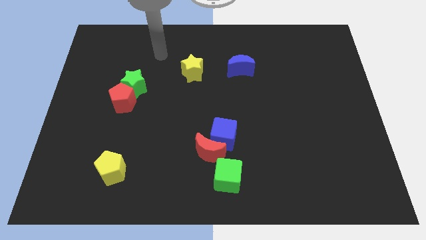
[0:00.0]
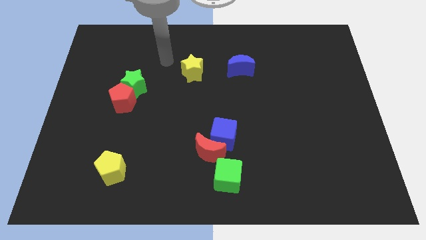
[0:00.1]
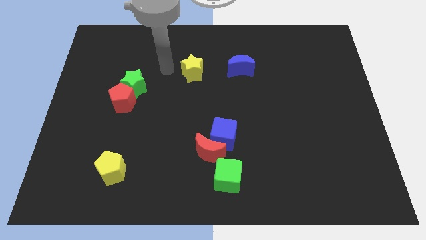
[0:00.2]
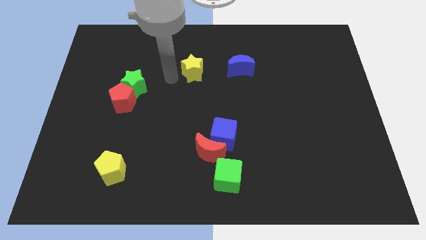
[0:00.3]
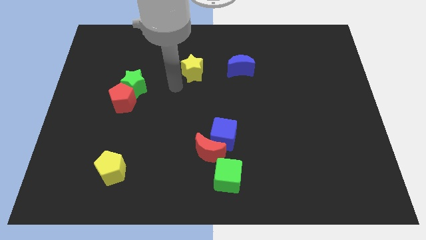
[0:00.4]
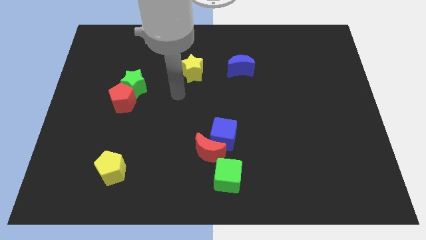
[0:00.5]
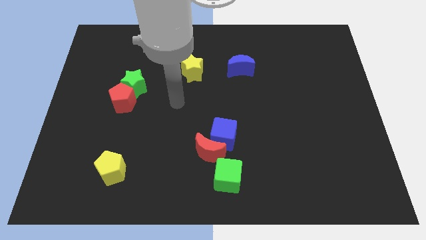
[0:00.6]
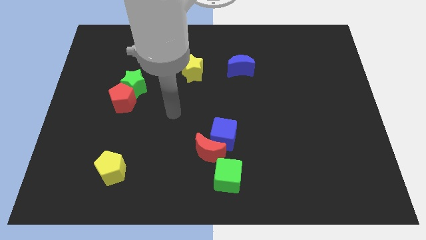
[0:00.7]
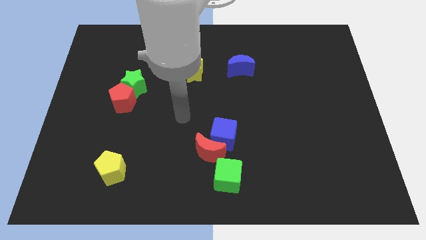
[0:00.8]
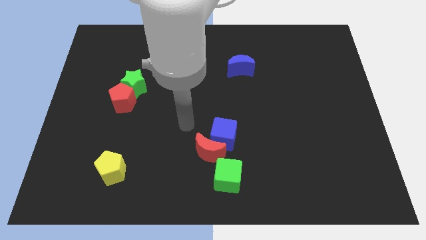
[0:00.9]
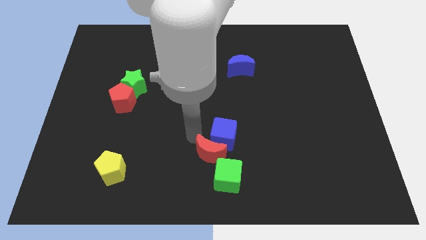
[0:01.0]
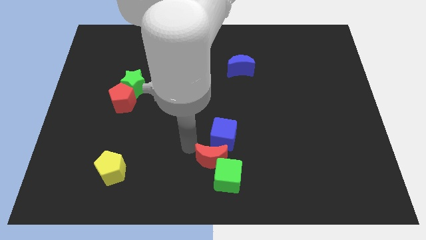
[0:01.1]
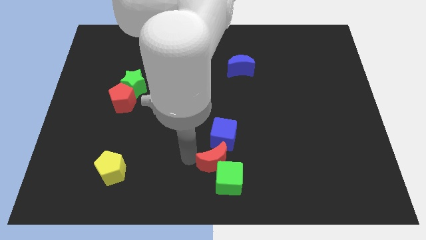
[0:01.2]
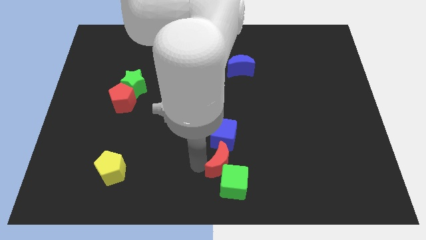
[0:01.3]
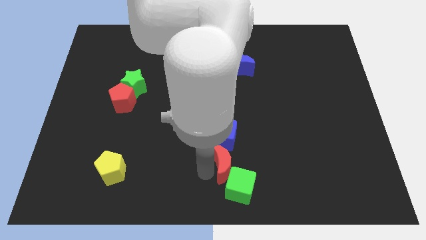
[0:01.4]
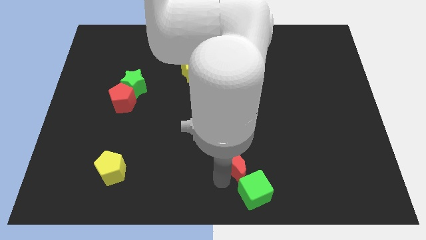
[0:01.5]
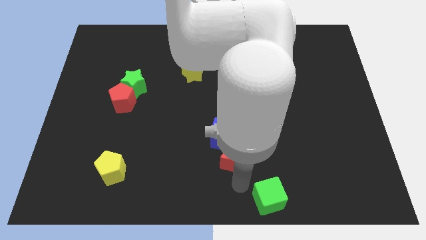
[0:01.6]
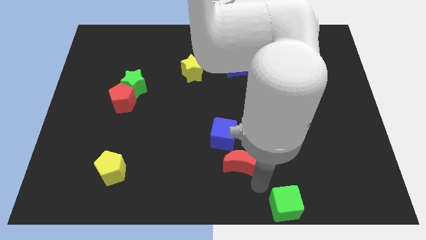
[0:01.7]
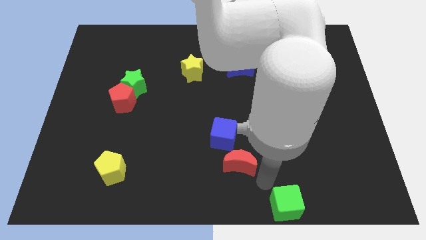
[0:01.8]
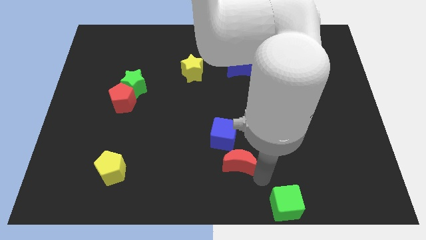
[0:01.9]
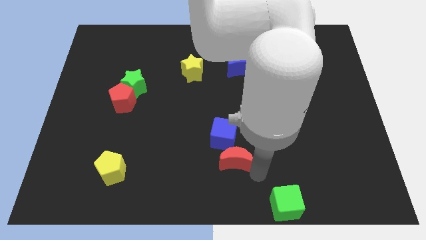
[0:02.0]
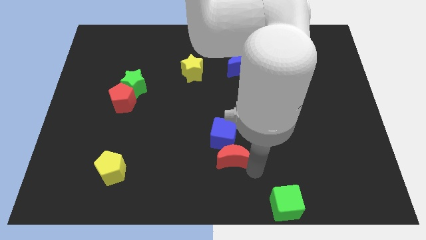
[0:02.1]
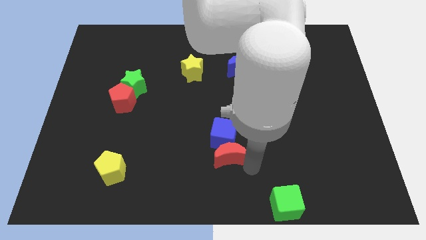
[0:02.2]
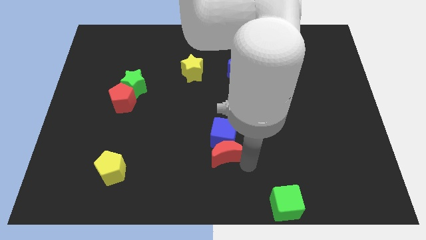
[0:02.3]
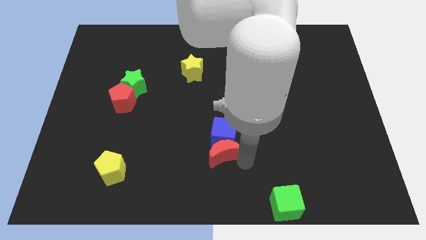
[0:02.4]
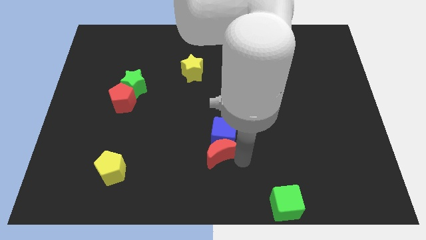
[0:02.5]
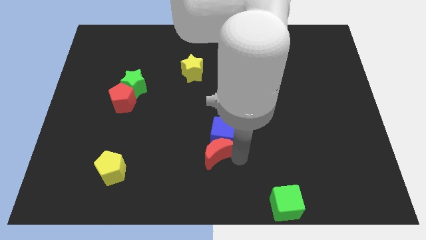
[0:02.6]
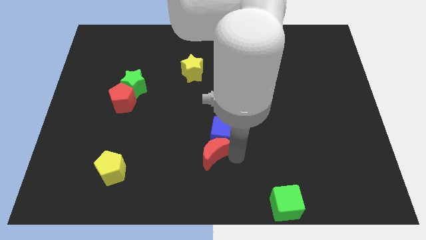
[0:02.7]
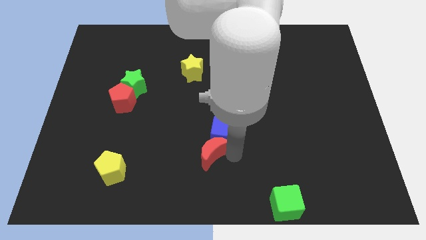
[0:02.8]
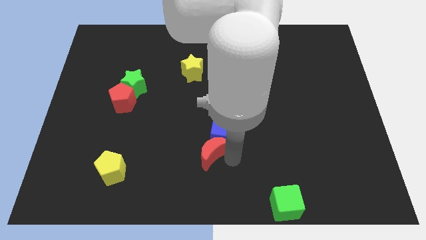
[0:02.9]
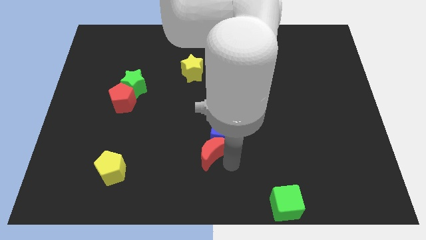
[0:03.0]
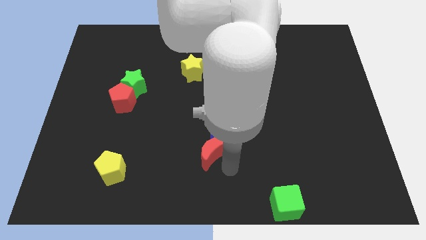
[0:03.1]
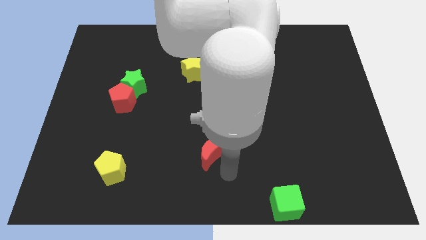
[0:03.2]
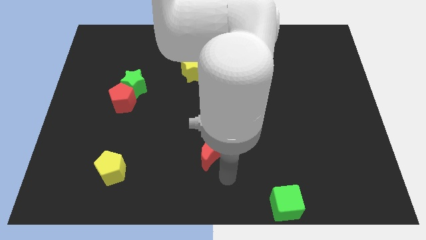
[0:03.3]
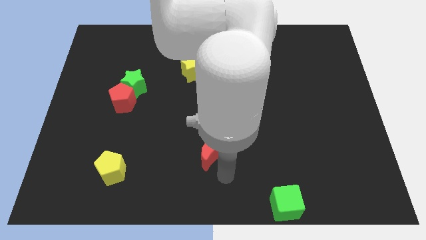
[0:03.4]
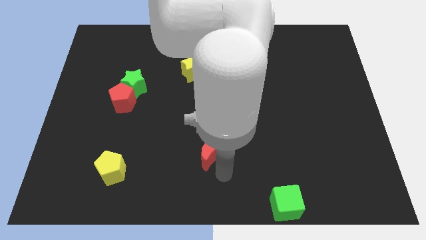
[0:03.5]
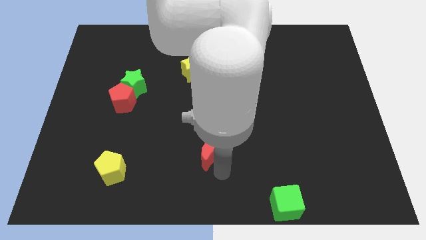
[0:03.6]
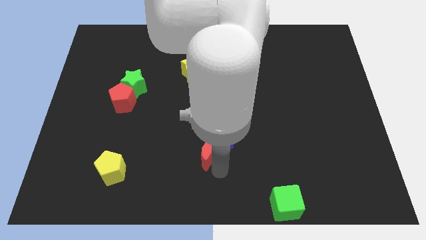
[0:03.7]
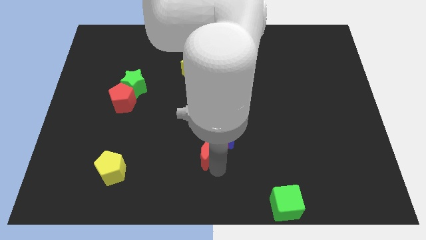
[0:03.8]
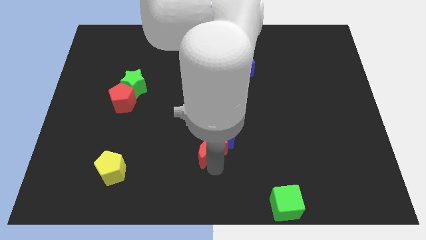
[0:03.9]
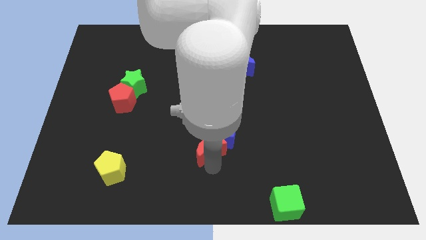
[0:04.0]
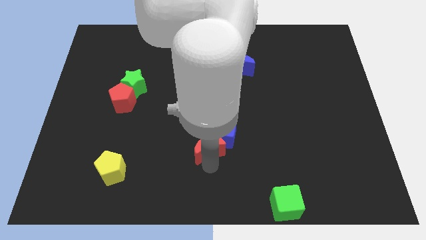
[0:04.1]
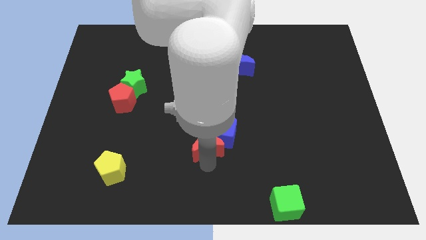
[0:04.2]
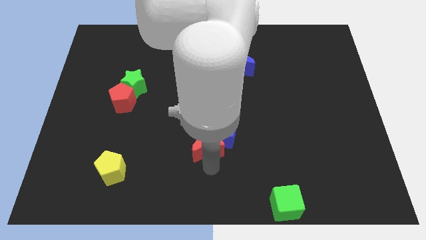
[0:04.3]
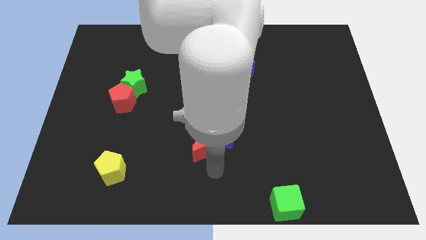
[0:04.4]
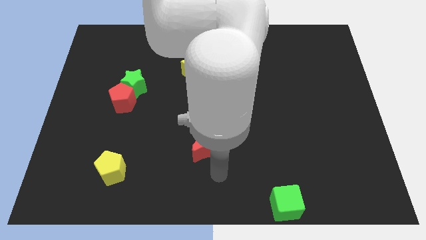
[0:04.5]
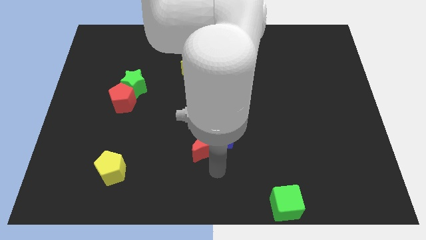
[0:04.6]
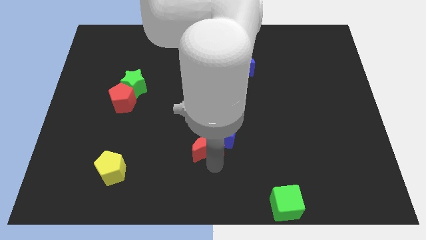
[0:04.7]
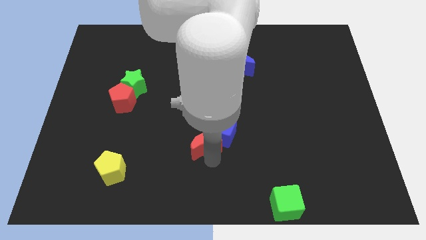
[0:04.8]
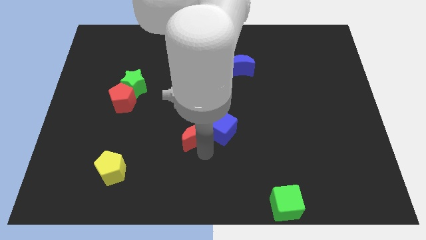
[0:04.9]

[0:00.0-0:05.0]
move the red moon to the center

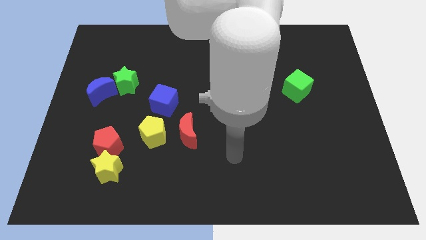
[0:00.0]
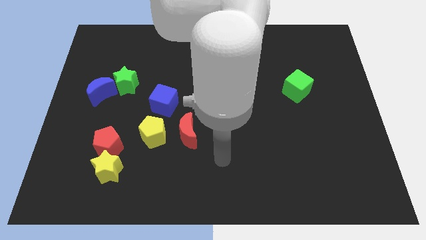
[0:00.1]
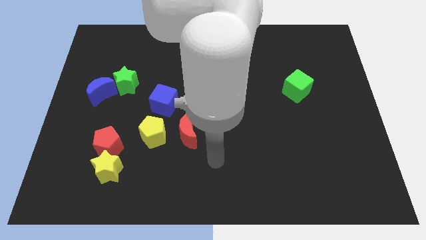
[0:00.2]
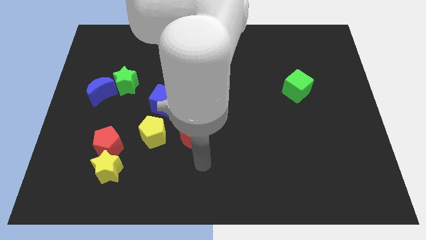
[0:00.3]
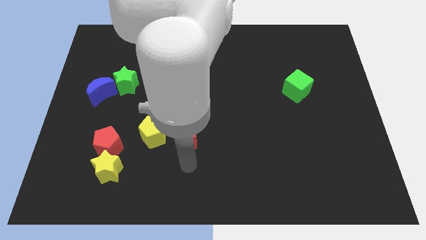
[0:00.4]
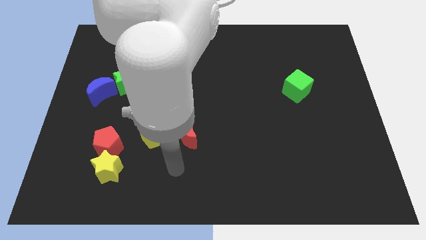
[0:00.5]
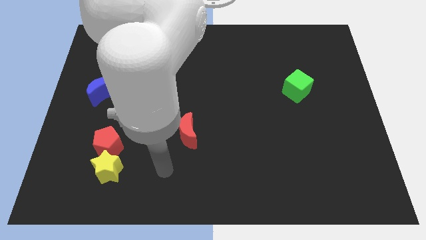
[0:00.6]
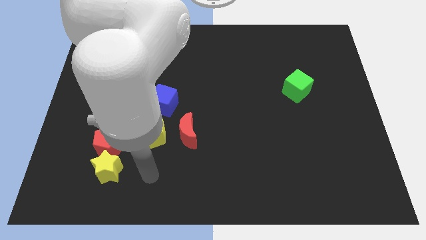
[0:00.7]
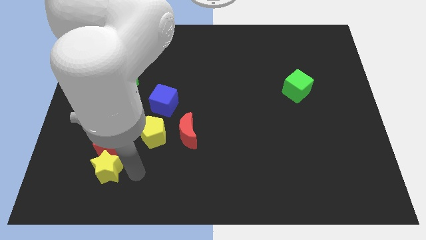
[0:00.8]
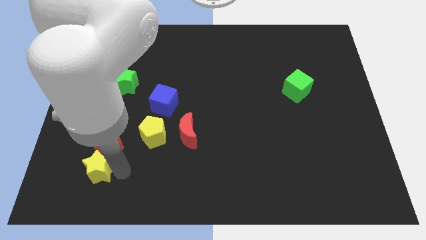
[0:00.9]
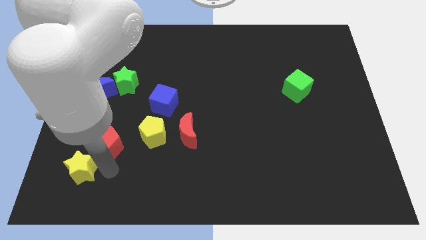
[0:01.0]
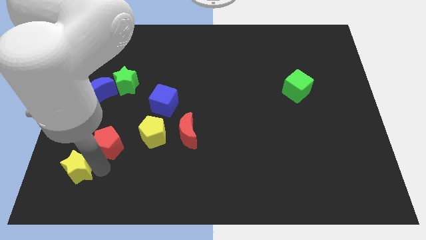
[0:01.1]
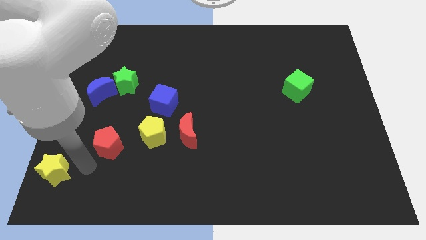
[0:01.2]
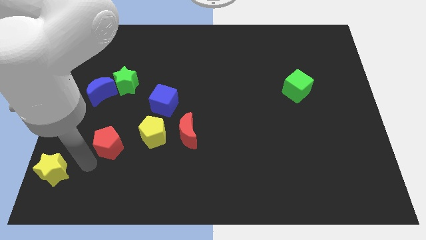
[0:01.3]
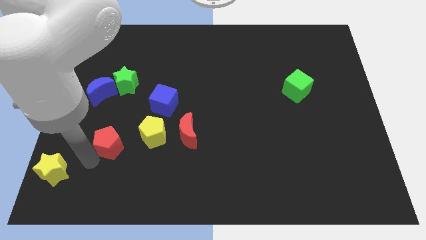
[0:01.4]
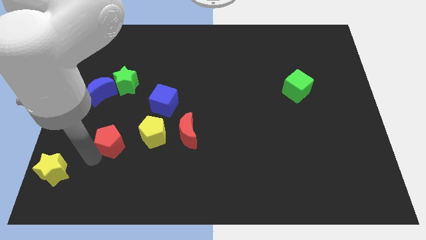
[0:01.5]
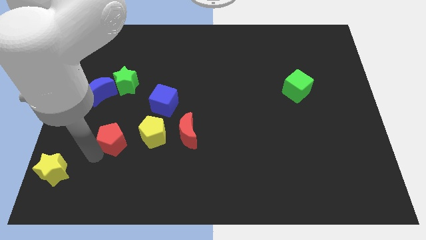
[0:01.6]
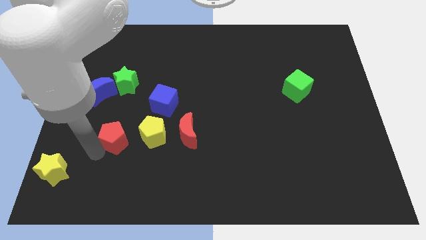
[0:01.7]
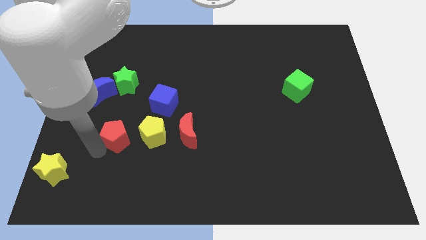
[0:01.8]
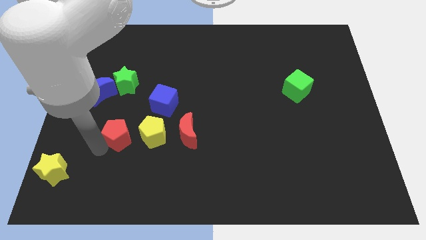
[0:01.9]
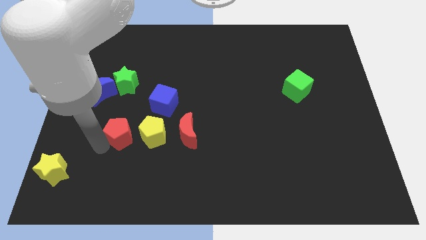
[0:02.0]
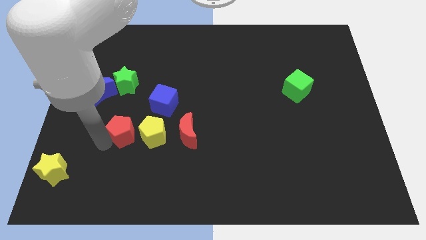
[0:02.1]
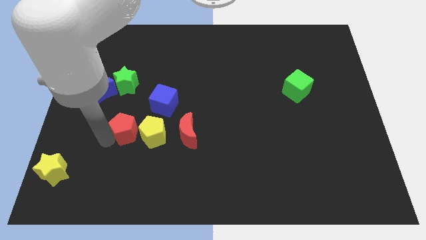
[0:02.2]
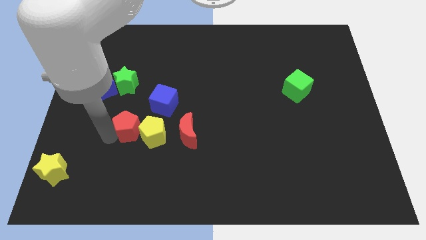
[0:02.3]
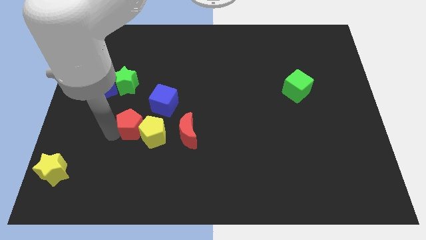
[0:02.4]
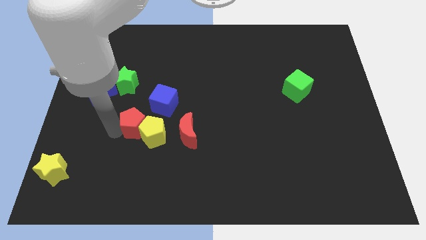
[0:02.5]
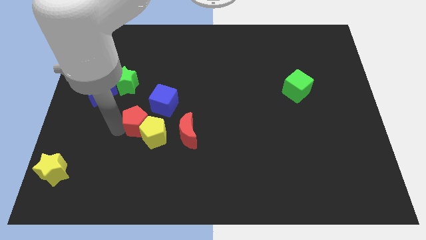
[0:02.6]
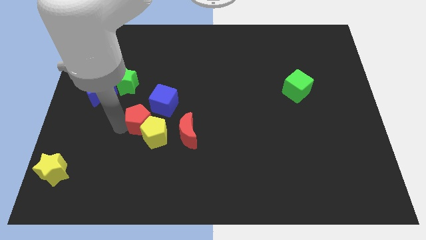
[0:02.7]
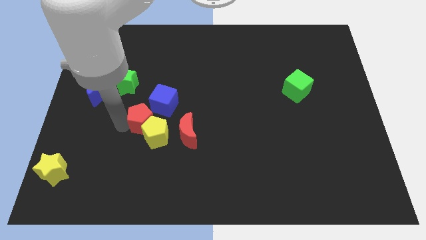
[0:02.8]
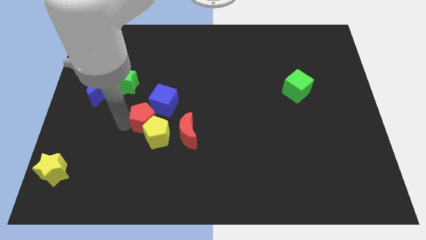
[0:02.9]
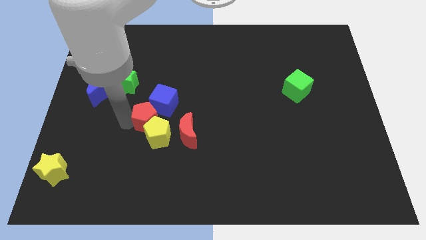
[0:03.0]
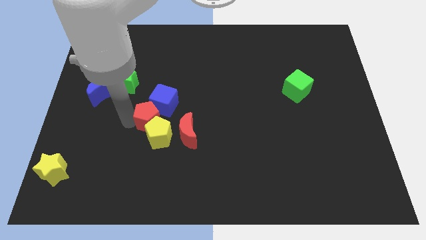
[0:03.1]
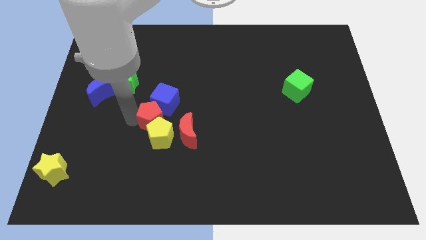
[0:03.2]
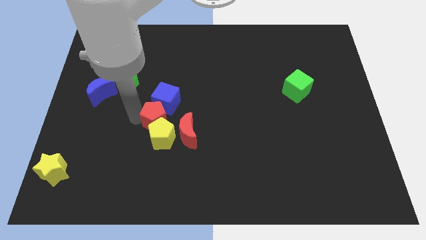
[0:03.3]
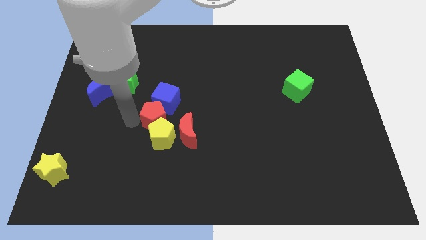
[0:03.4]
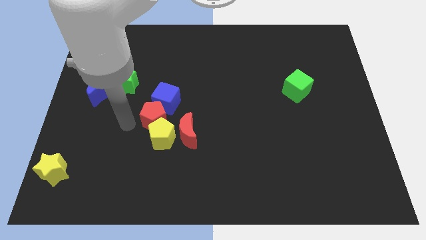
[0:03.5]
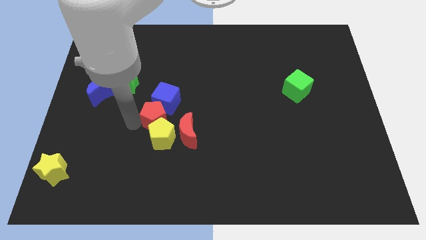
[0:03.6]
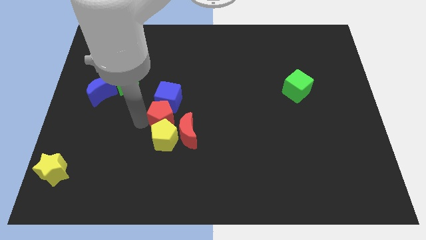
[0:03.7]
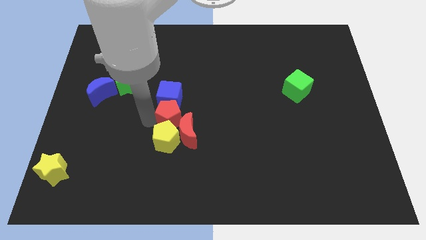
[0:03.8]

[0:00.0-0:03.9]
move the red pentagon to the middle of the board
